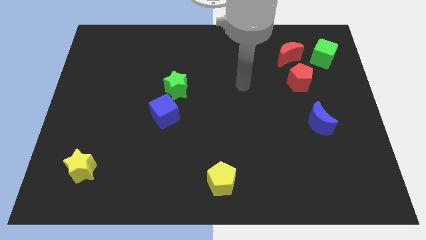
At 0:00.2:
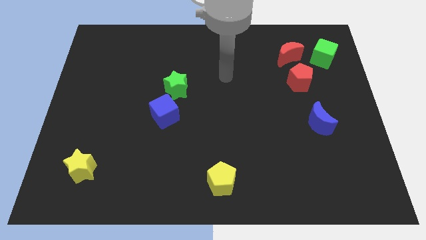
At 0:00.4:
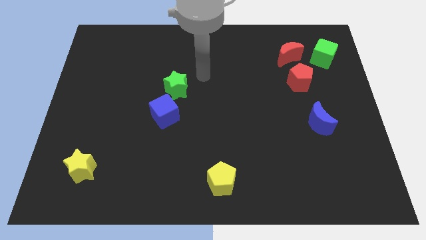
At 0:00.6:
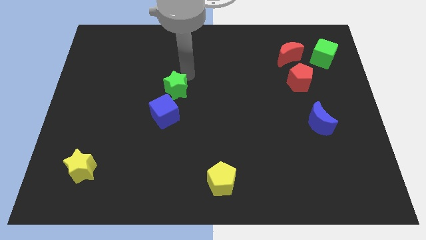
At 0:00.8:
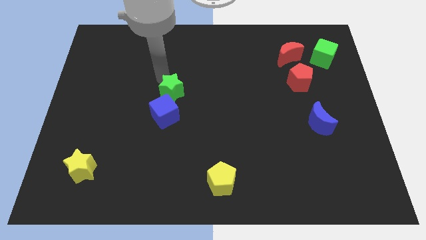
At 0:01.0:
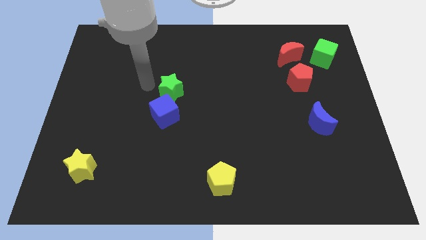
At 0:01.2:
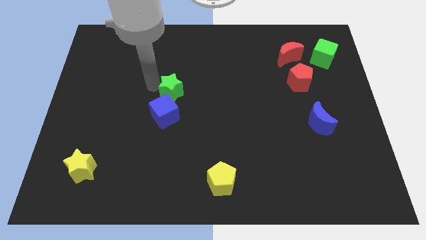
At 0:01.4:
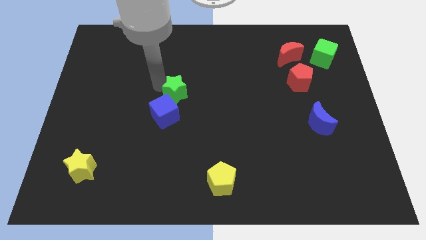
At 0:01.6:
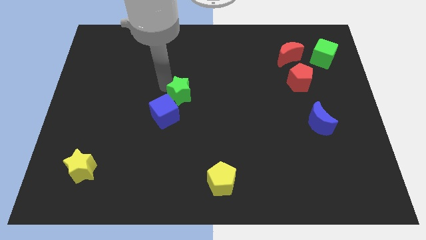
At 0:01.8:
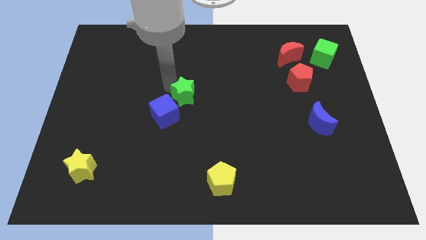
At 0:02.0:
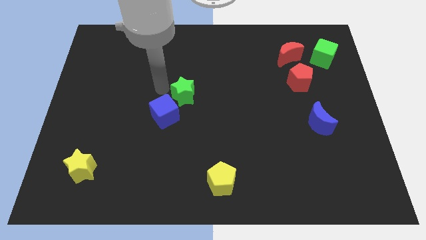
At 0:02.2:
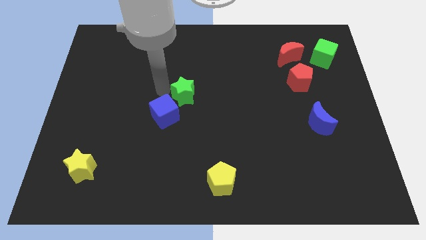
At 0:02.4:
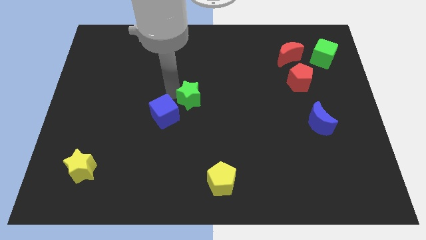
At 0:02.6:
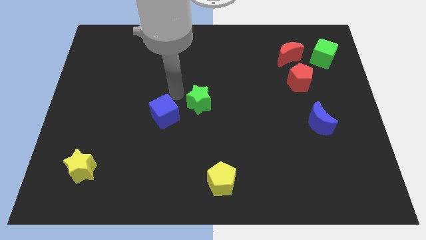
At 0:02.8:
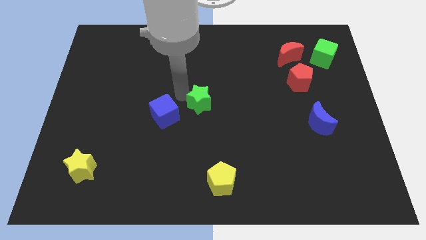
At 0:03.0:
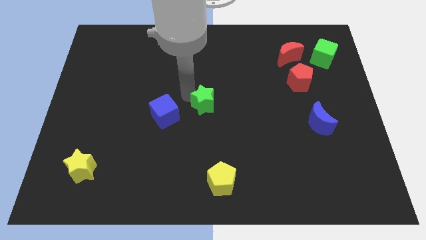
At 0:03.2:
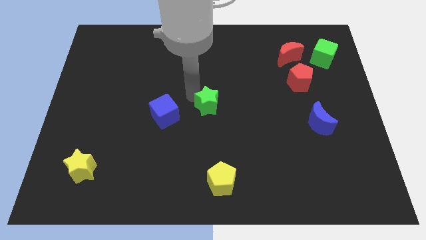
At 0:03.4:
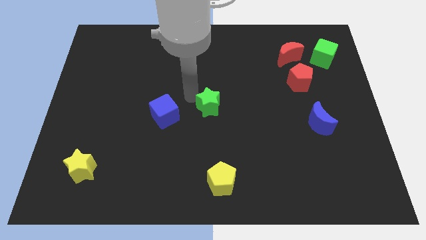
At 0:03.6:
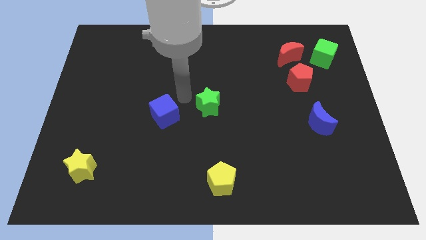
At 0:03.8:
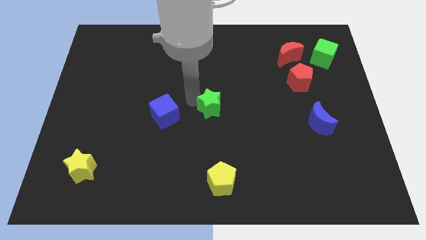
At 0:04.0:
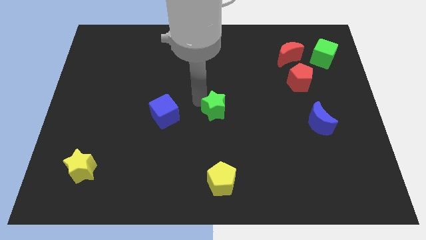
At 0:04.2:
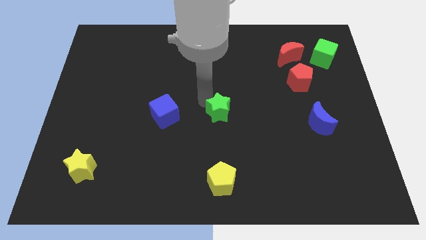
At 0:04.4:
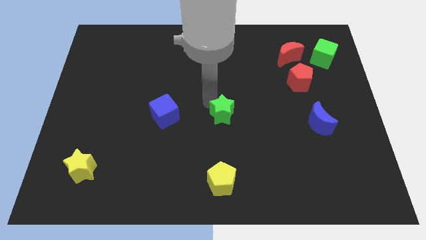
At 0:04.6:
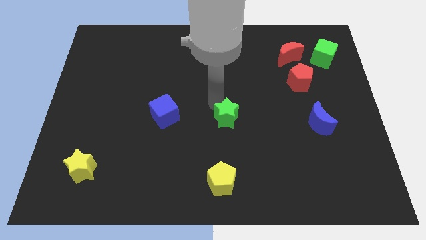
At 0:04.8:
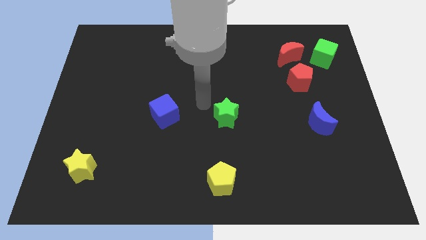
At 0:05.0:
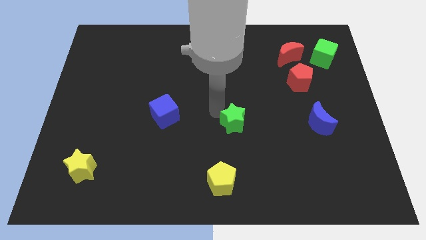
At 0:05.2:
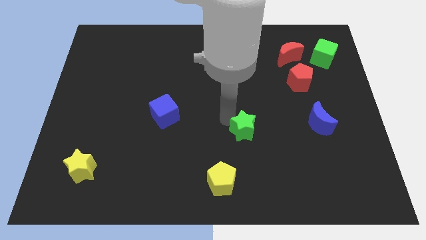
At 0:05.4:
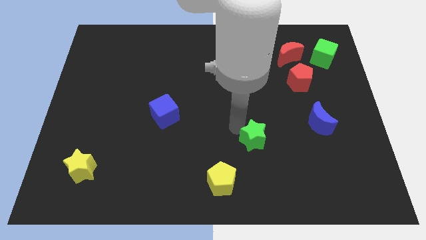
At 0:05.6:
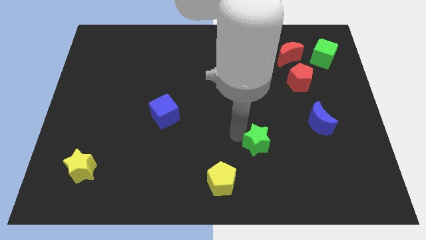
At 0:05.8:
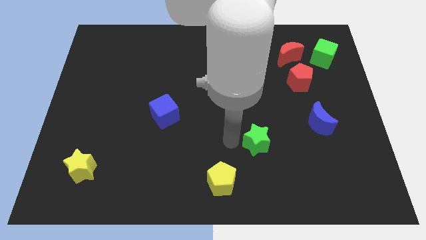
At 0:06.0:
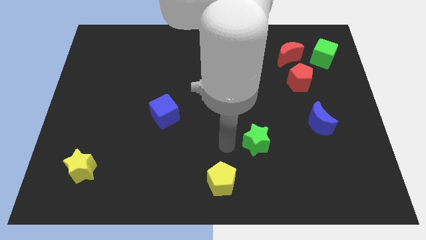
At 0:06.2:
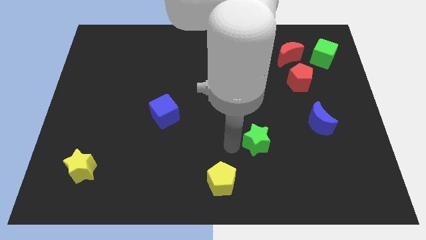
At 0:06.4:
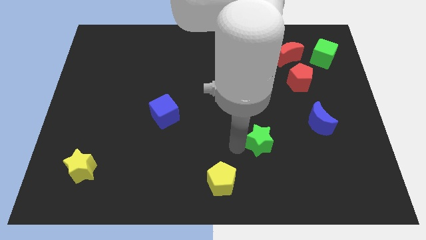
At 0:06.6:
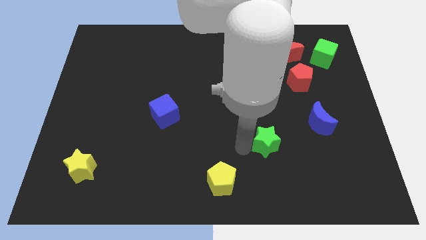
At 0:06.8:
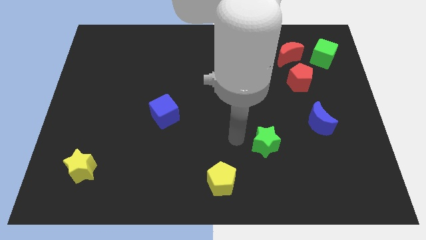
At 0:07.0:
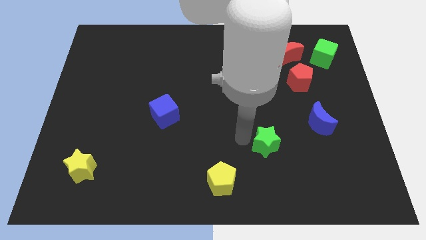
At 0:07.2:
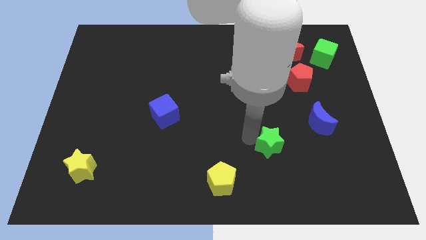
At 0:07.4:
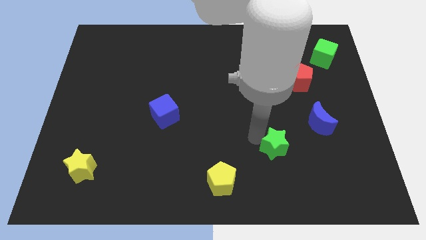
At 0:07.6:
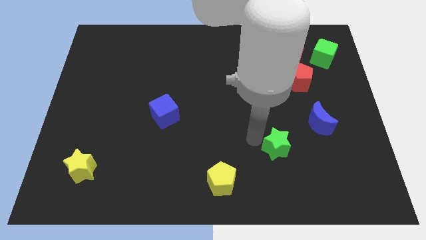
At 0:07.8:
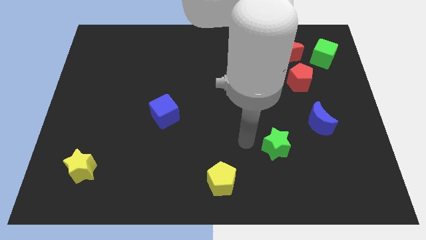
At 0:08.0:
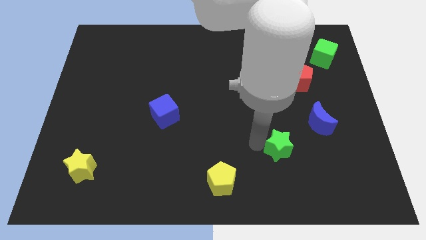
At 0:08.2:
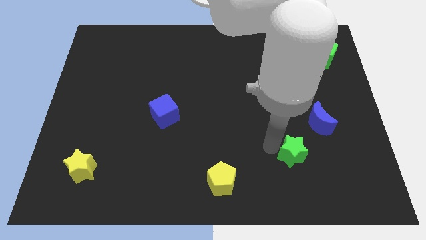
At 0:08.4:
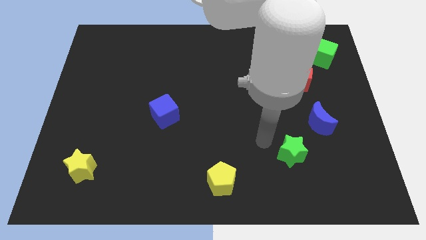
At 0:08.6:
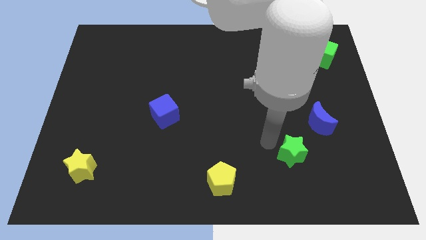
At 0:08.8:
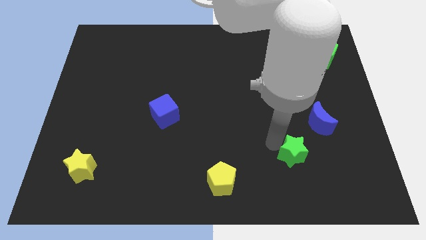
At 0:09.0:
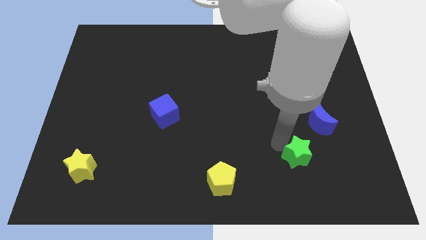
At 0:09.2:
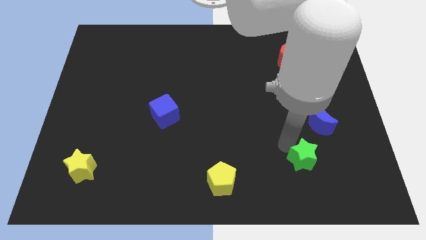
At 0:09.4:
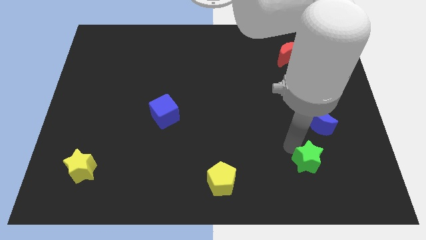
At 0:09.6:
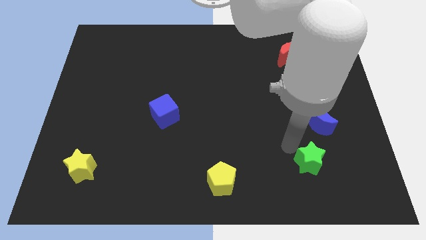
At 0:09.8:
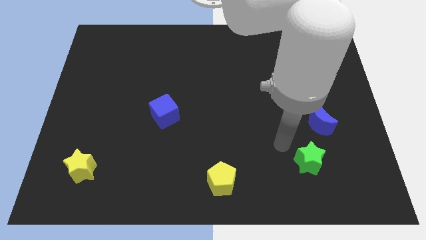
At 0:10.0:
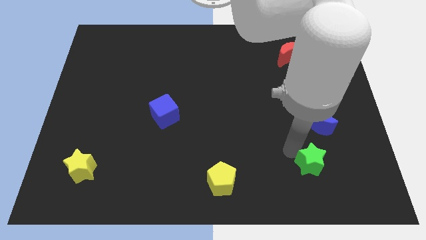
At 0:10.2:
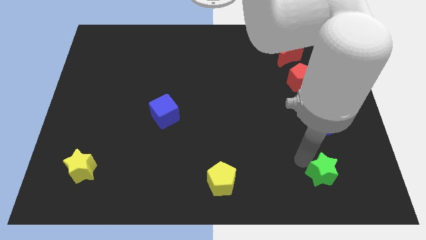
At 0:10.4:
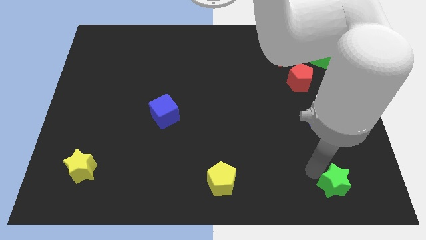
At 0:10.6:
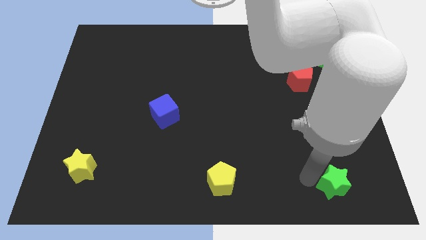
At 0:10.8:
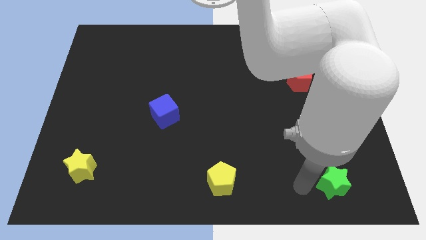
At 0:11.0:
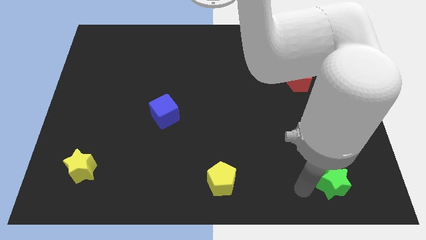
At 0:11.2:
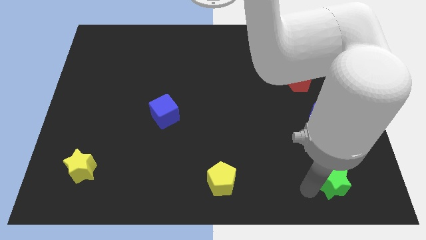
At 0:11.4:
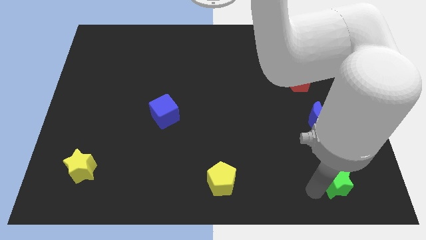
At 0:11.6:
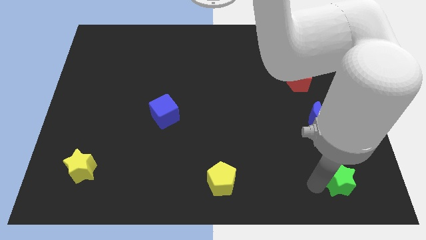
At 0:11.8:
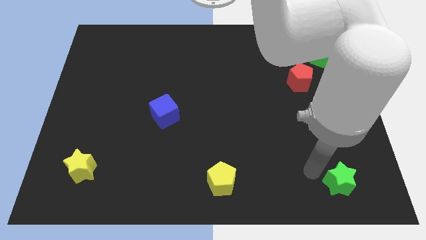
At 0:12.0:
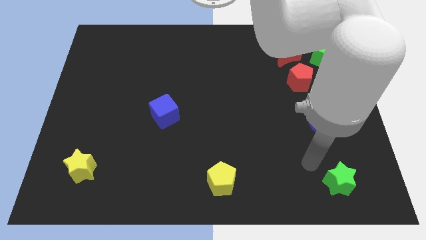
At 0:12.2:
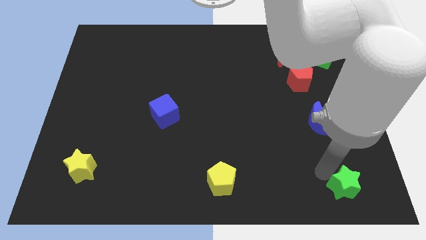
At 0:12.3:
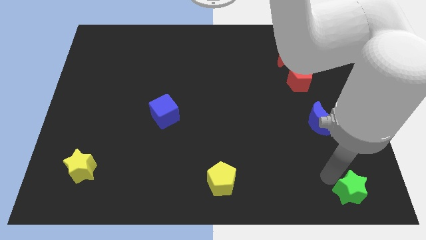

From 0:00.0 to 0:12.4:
put the green star to the bottom right of the board

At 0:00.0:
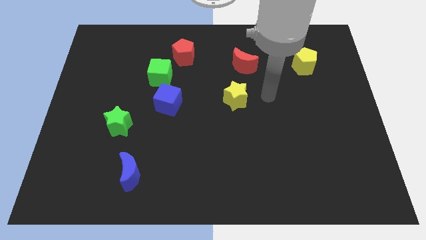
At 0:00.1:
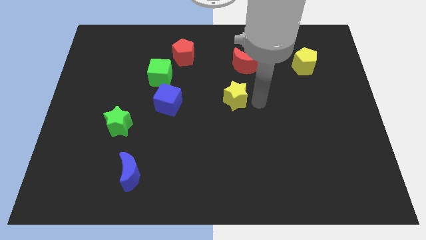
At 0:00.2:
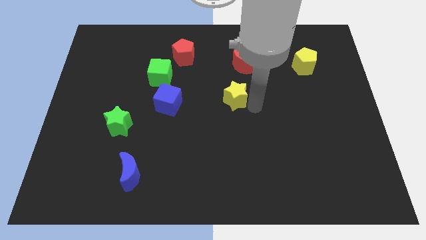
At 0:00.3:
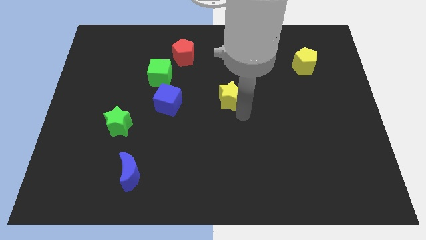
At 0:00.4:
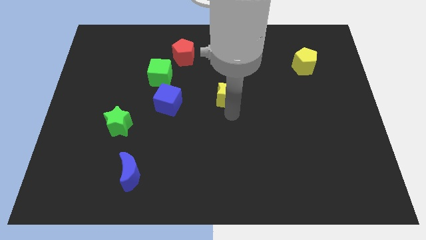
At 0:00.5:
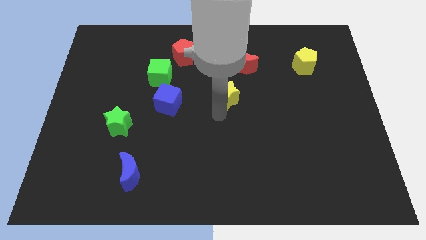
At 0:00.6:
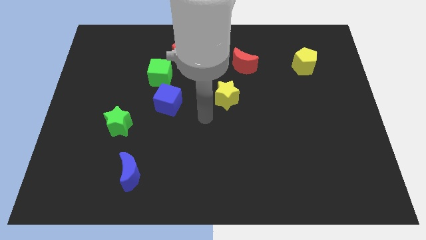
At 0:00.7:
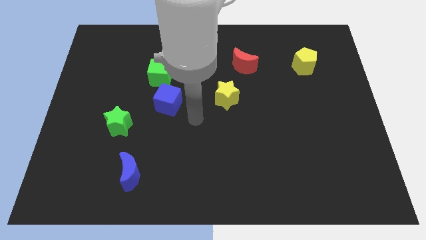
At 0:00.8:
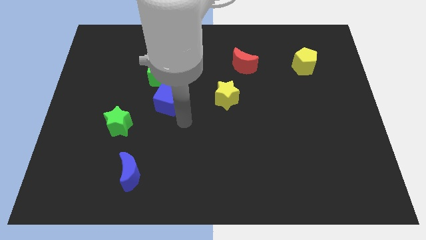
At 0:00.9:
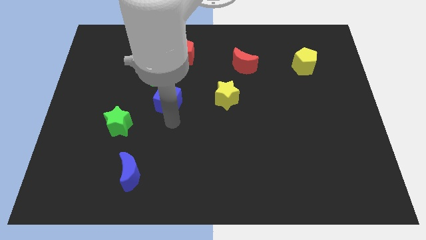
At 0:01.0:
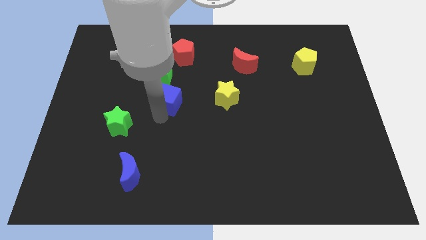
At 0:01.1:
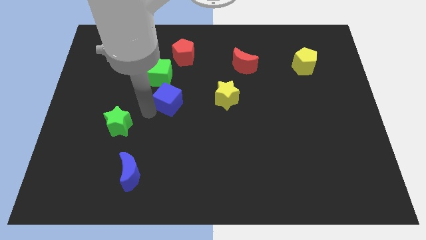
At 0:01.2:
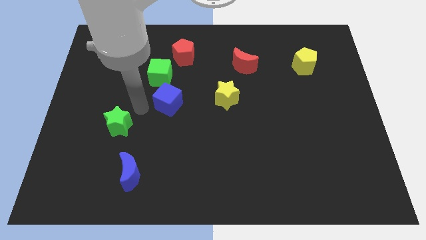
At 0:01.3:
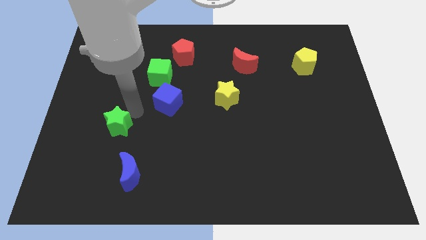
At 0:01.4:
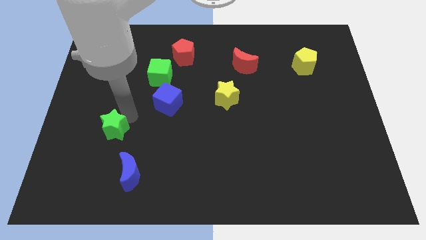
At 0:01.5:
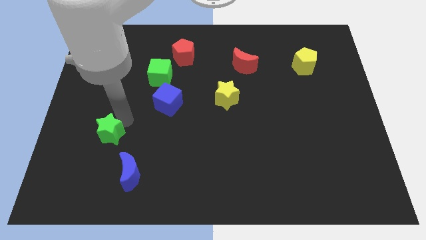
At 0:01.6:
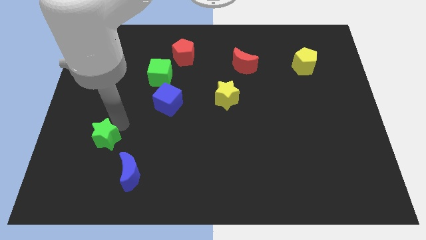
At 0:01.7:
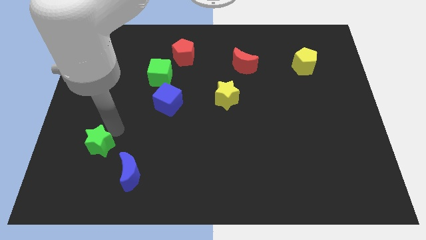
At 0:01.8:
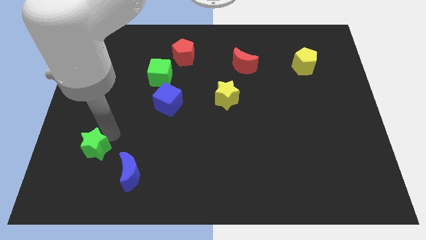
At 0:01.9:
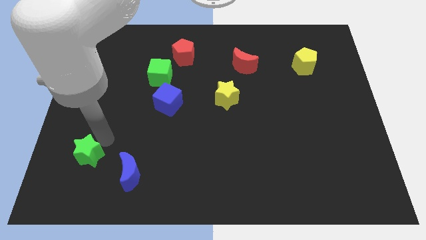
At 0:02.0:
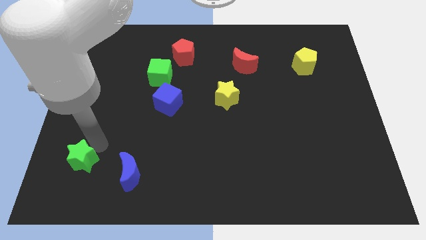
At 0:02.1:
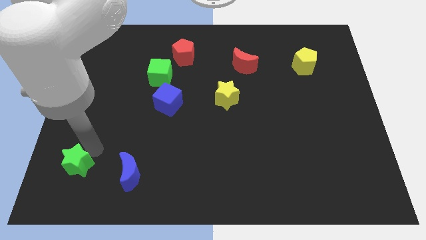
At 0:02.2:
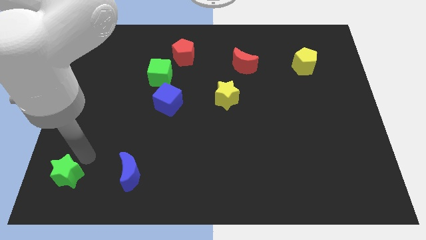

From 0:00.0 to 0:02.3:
put the green star to the lower left corner
